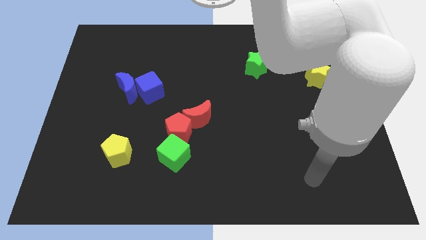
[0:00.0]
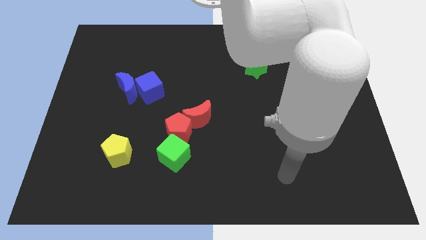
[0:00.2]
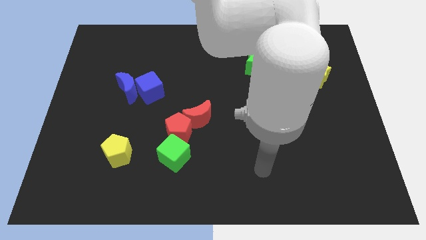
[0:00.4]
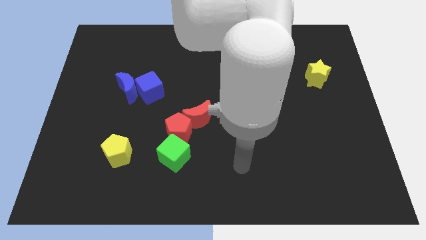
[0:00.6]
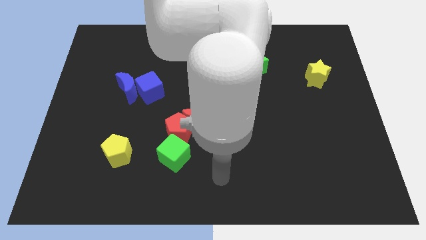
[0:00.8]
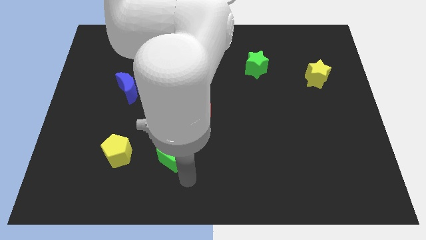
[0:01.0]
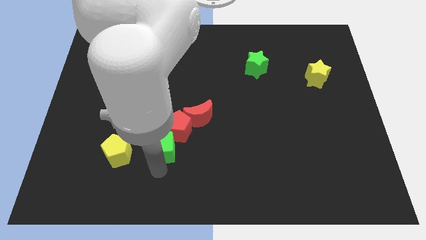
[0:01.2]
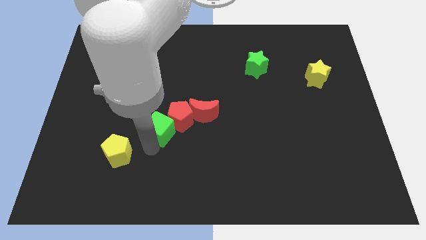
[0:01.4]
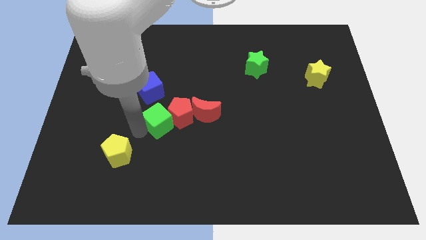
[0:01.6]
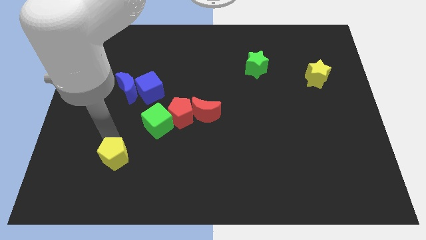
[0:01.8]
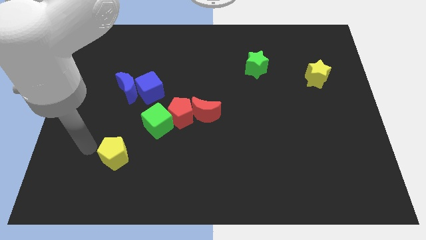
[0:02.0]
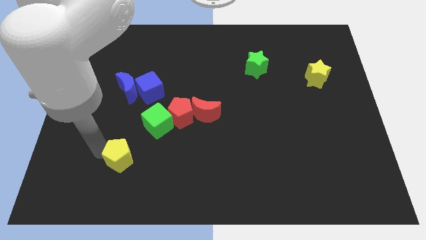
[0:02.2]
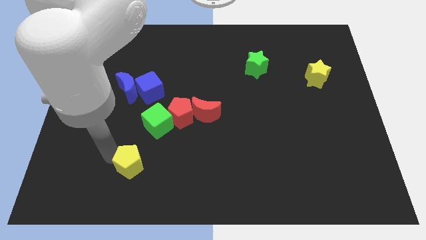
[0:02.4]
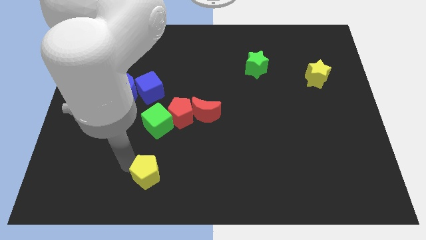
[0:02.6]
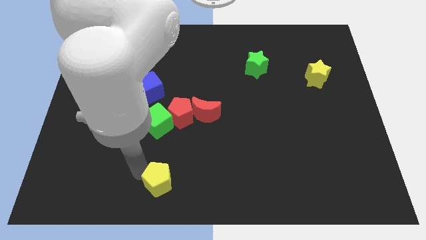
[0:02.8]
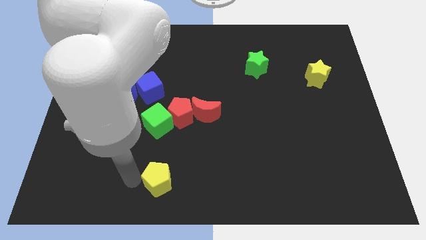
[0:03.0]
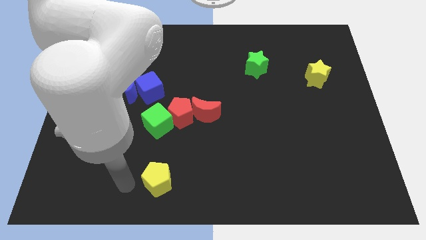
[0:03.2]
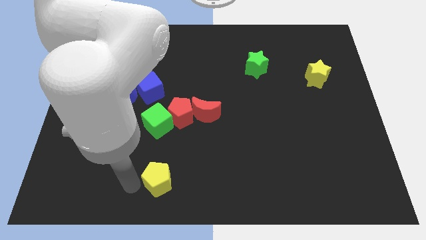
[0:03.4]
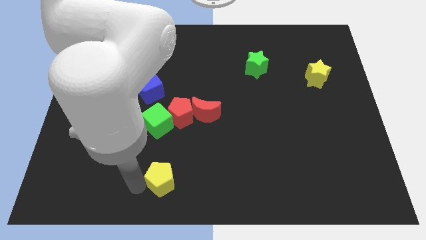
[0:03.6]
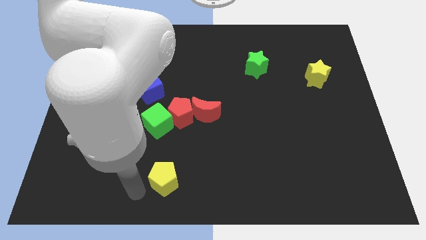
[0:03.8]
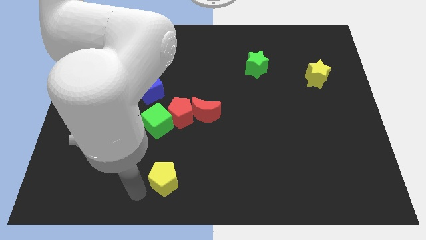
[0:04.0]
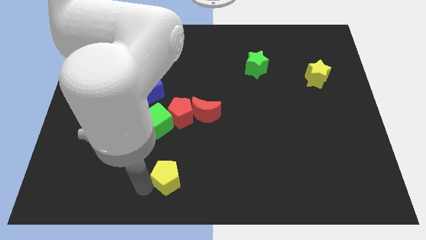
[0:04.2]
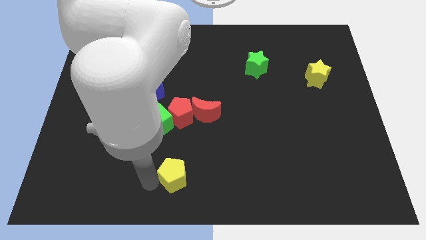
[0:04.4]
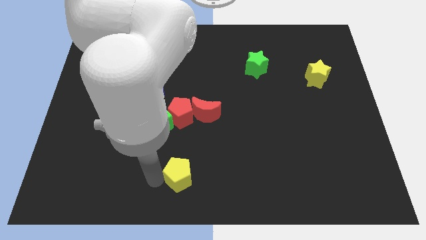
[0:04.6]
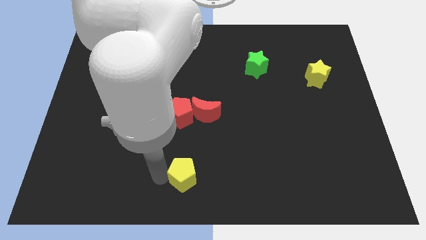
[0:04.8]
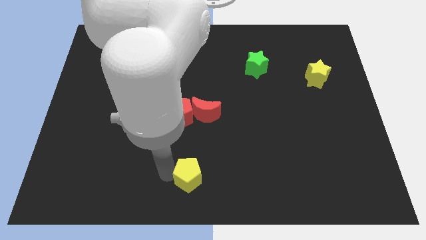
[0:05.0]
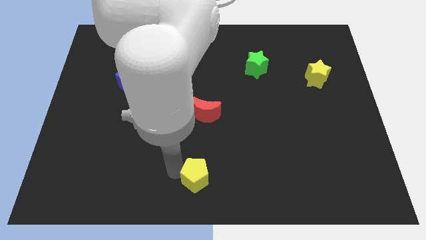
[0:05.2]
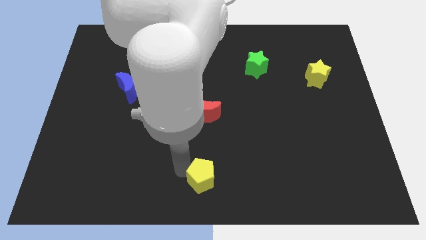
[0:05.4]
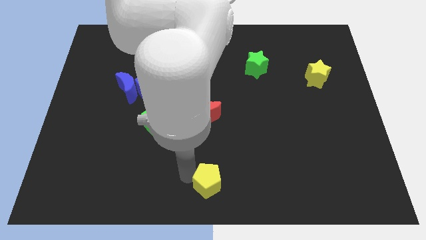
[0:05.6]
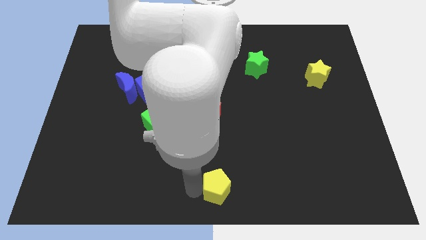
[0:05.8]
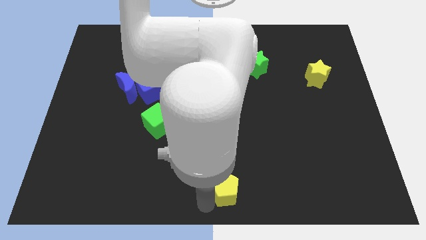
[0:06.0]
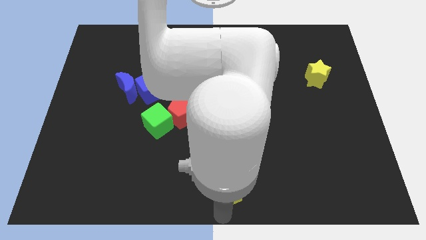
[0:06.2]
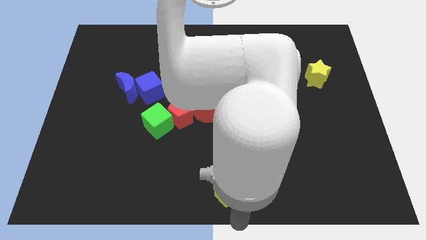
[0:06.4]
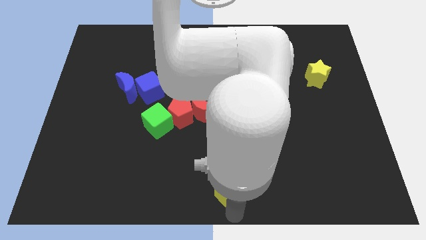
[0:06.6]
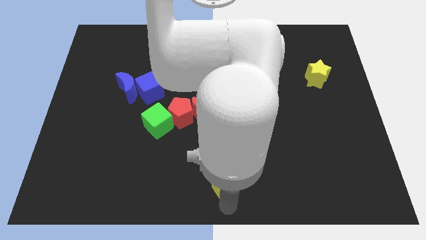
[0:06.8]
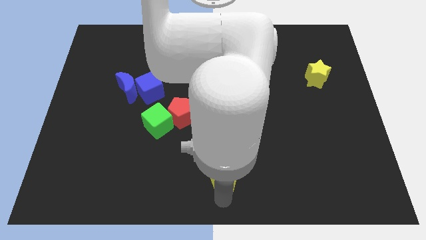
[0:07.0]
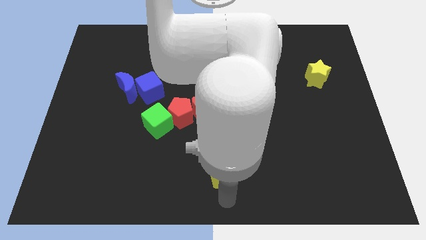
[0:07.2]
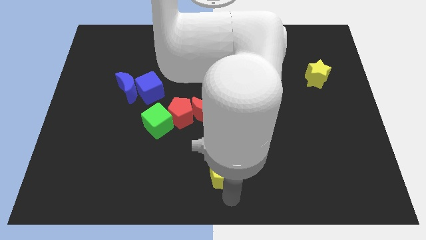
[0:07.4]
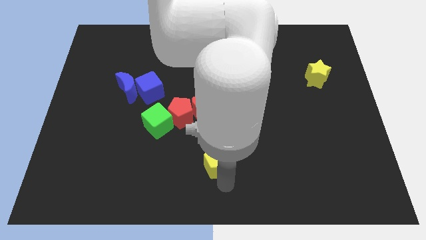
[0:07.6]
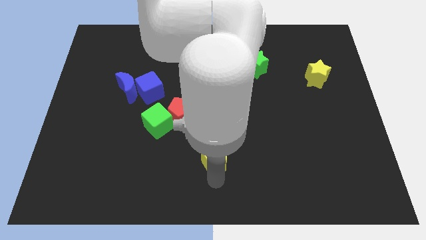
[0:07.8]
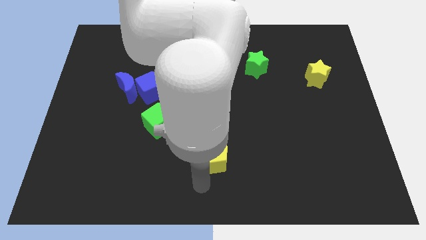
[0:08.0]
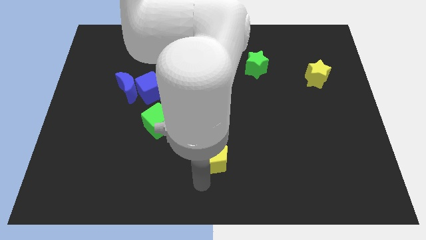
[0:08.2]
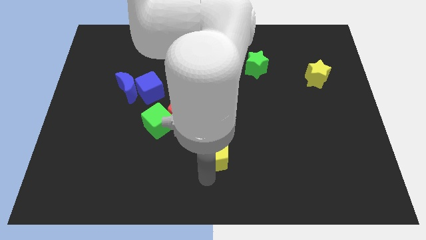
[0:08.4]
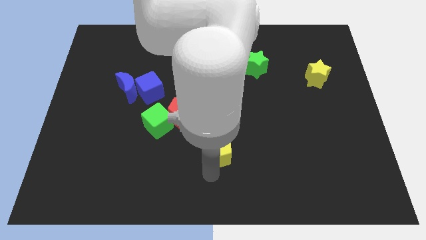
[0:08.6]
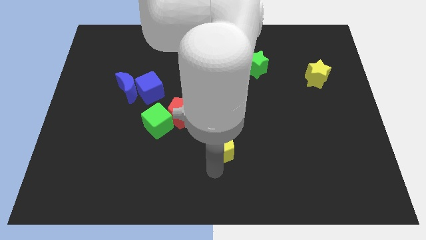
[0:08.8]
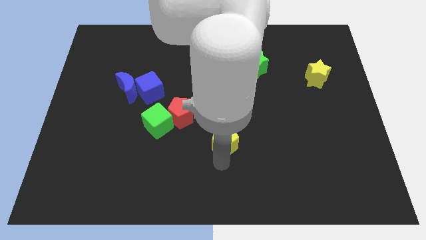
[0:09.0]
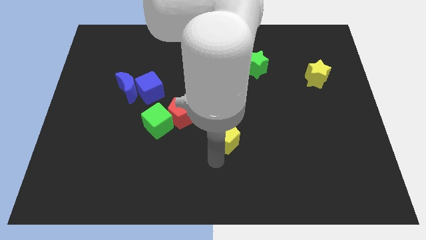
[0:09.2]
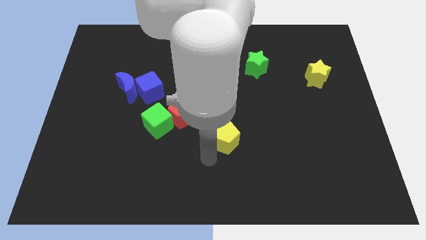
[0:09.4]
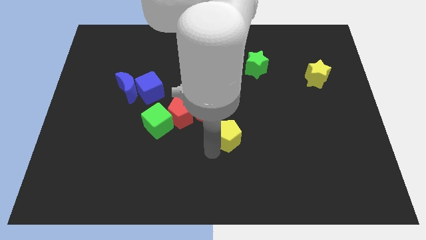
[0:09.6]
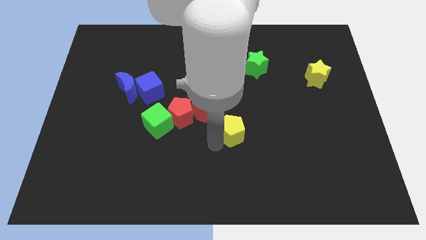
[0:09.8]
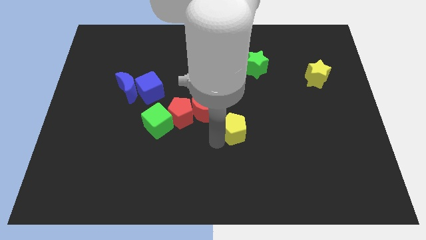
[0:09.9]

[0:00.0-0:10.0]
push the yellow pentagon just right of the red moon
